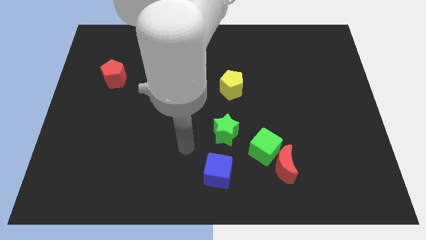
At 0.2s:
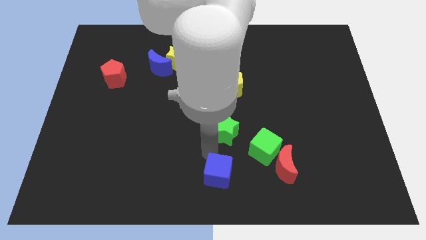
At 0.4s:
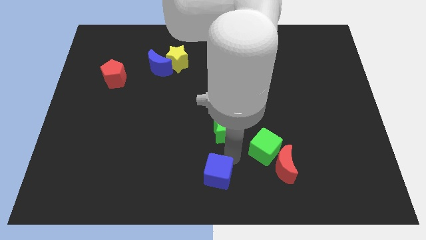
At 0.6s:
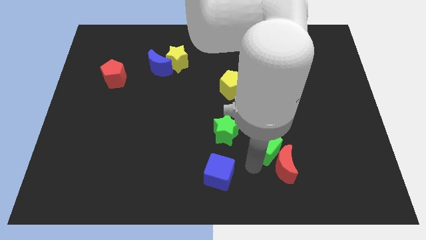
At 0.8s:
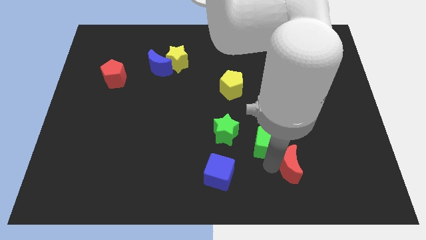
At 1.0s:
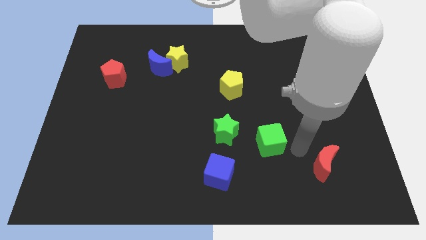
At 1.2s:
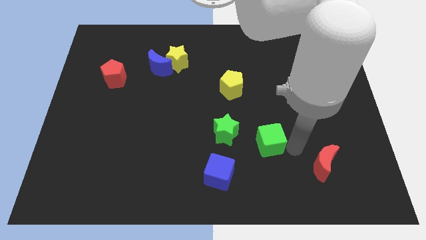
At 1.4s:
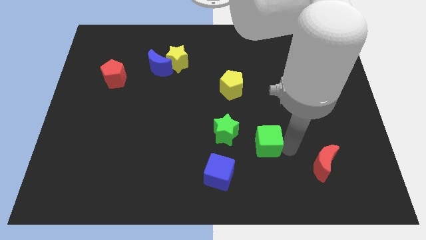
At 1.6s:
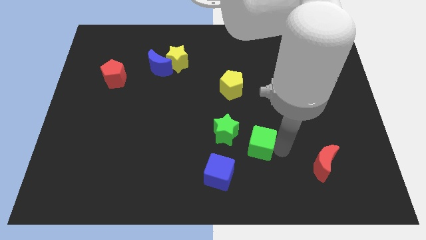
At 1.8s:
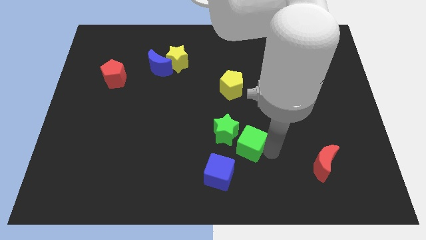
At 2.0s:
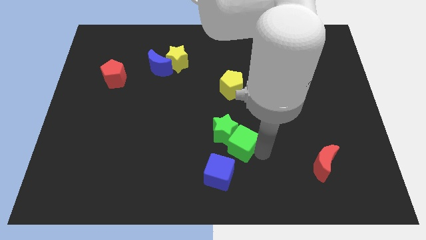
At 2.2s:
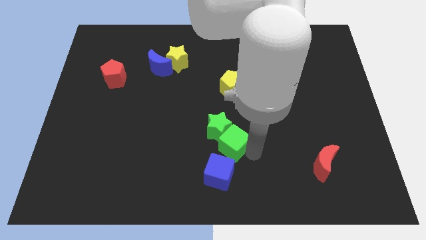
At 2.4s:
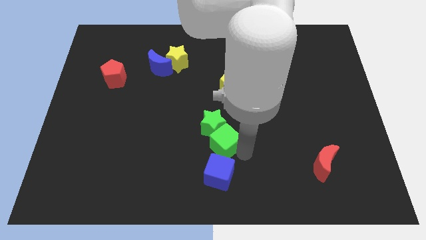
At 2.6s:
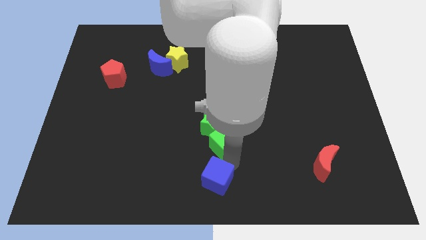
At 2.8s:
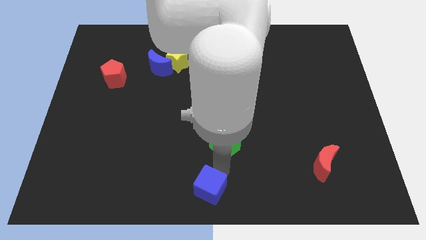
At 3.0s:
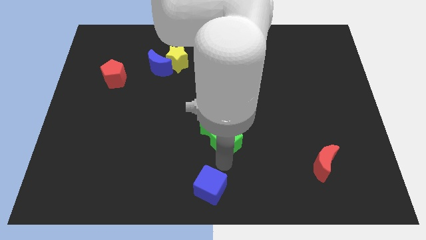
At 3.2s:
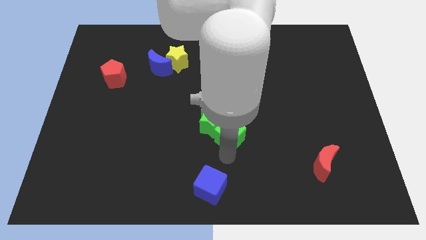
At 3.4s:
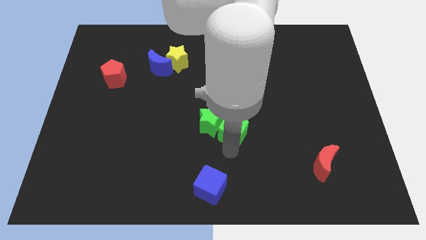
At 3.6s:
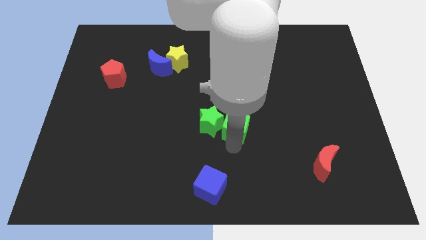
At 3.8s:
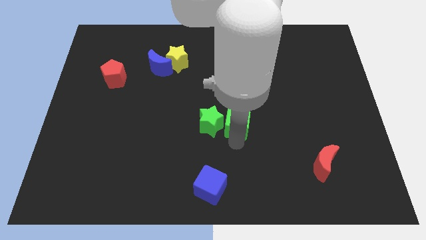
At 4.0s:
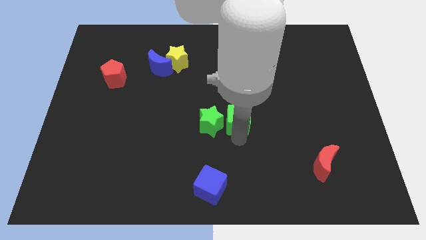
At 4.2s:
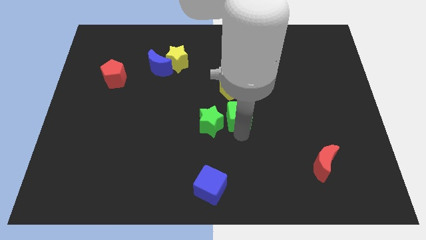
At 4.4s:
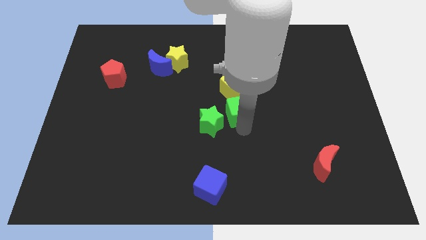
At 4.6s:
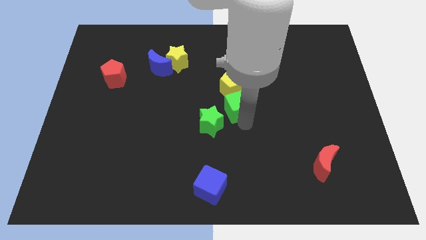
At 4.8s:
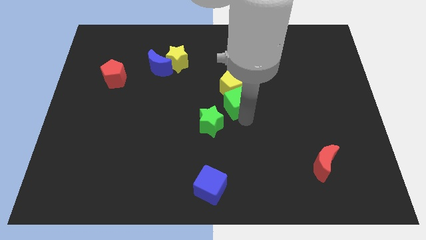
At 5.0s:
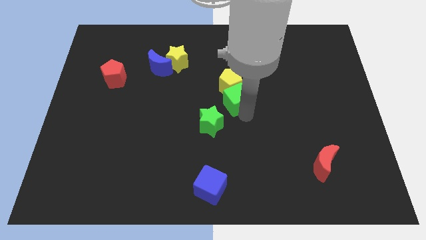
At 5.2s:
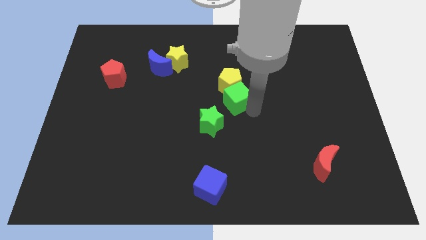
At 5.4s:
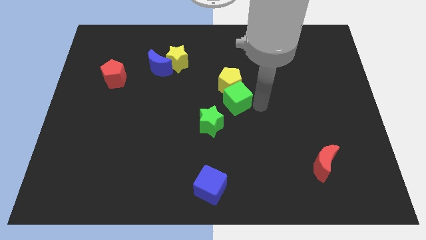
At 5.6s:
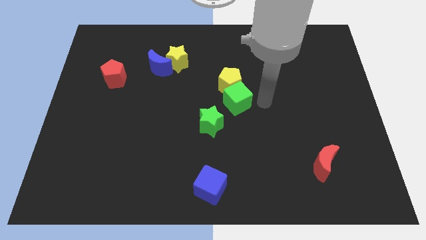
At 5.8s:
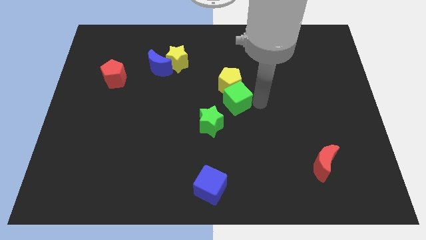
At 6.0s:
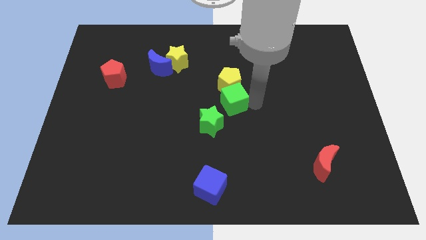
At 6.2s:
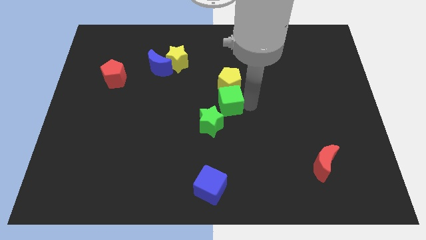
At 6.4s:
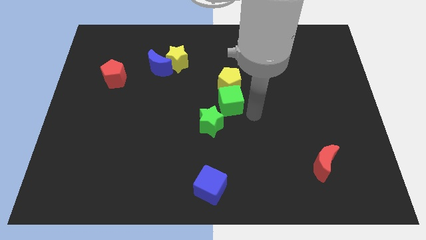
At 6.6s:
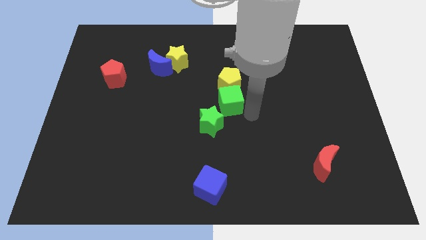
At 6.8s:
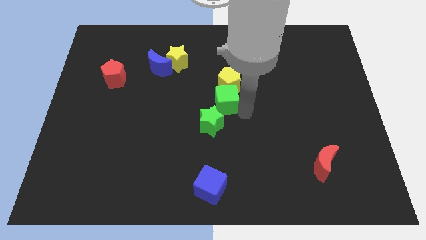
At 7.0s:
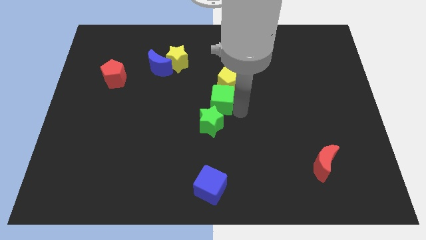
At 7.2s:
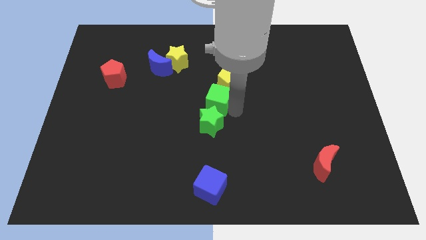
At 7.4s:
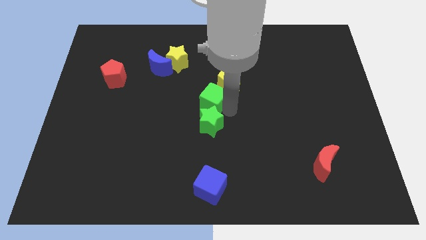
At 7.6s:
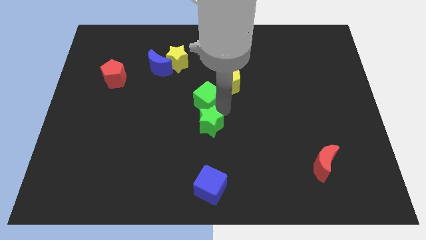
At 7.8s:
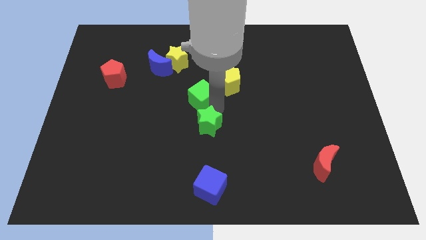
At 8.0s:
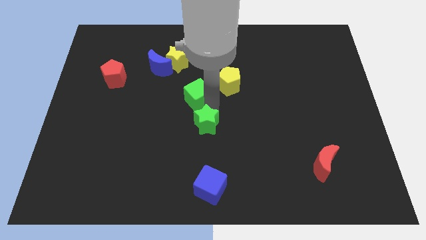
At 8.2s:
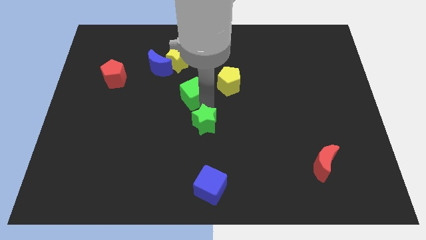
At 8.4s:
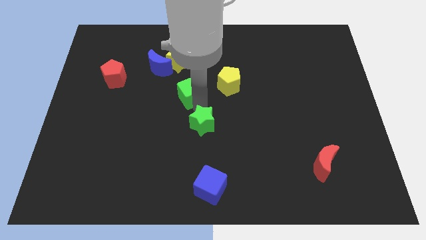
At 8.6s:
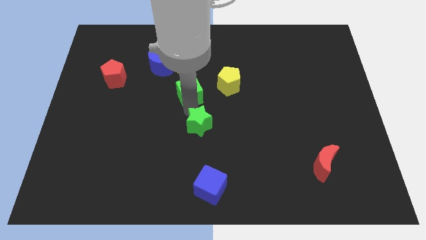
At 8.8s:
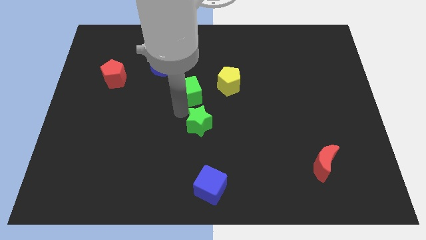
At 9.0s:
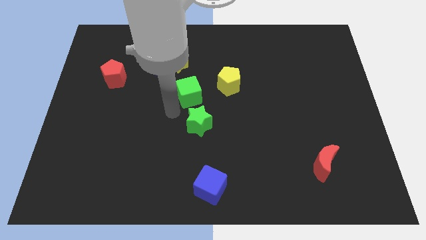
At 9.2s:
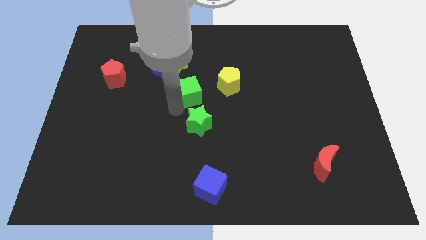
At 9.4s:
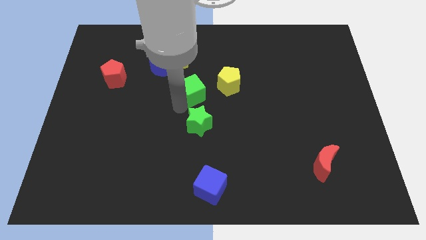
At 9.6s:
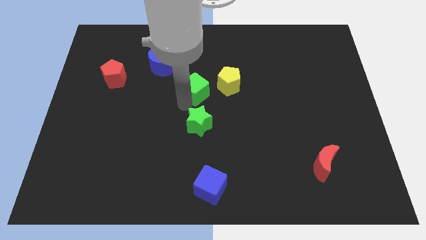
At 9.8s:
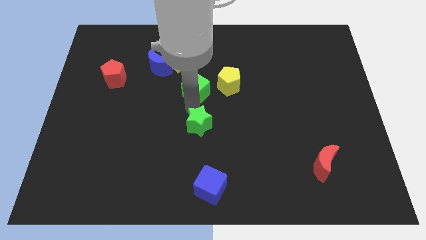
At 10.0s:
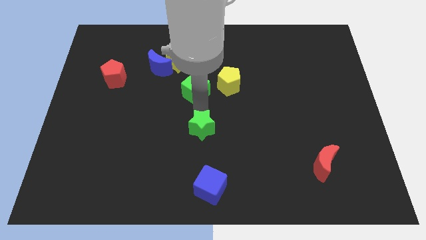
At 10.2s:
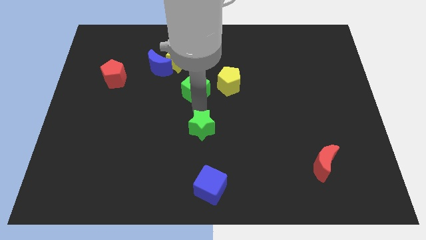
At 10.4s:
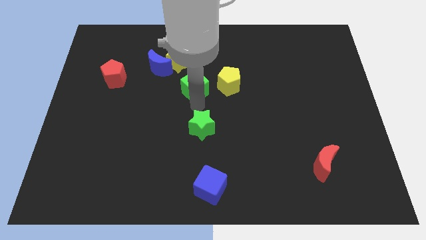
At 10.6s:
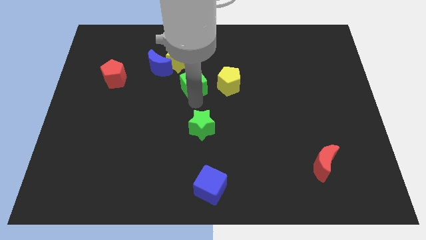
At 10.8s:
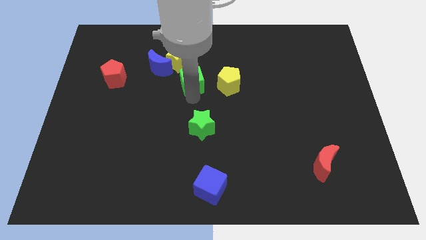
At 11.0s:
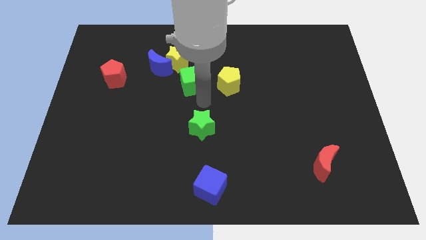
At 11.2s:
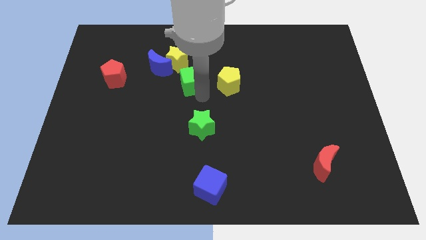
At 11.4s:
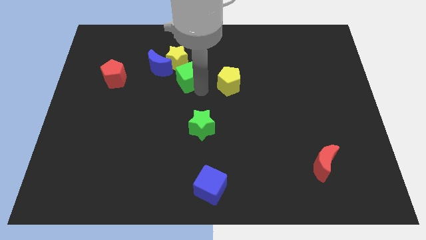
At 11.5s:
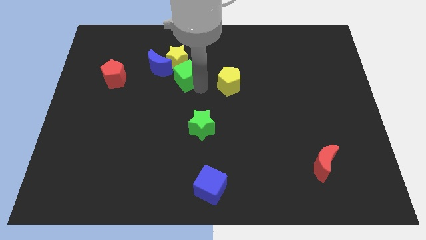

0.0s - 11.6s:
move the green cube towards the yellow star

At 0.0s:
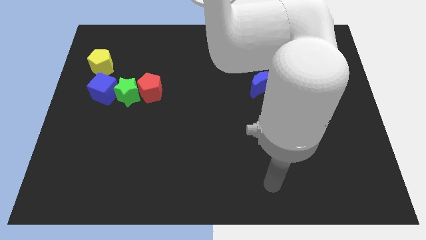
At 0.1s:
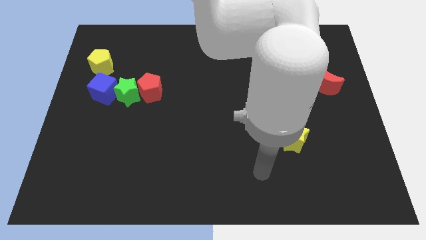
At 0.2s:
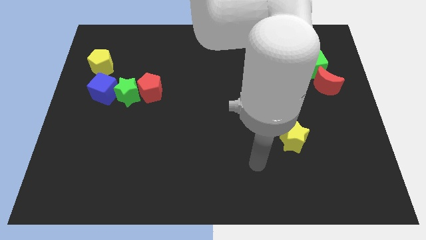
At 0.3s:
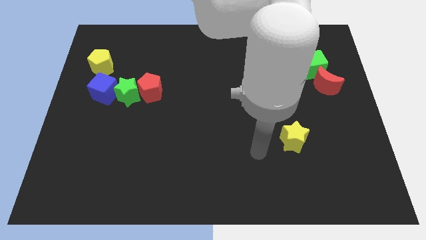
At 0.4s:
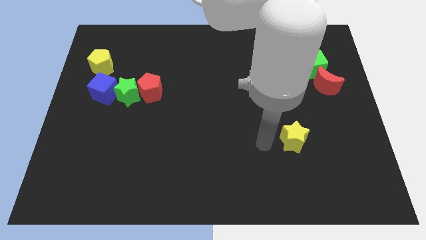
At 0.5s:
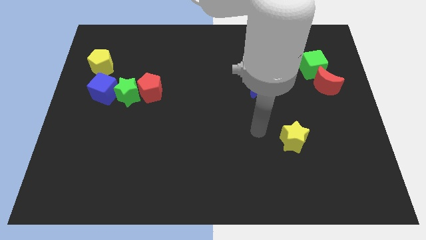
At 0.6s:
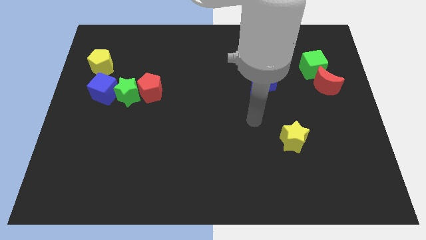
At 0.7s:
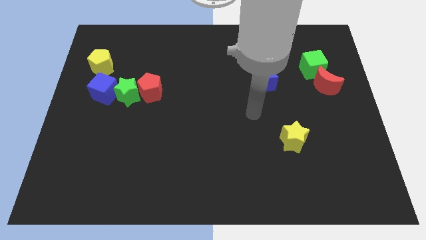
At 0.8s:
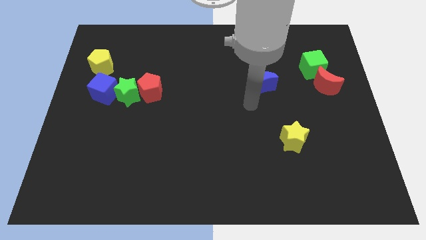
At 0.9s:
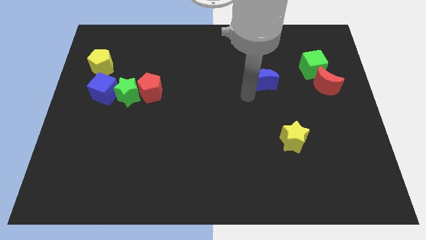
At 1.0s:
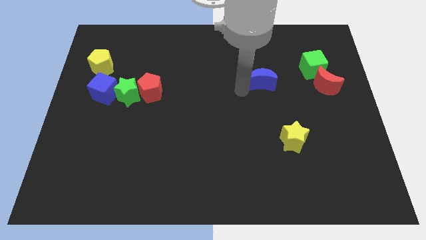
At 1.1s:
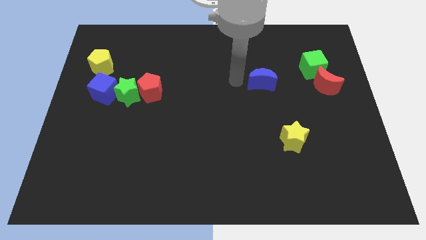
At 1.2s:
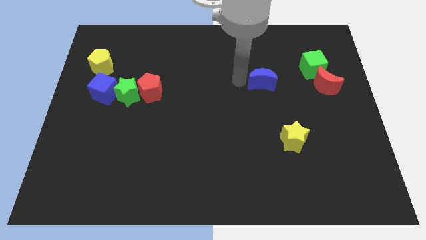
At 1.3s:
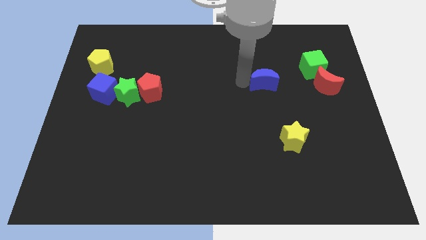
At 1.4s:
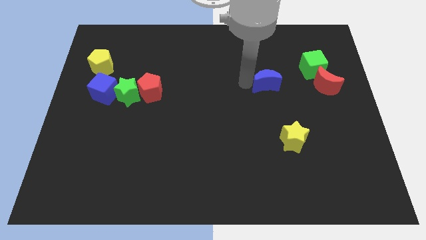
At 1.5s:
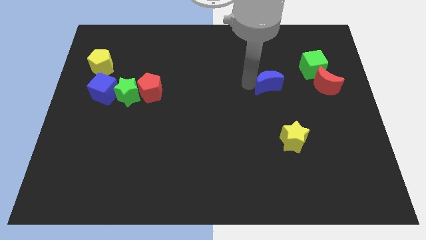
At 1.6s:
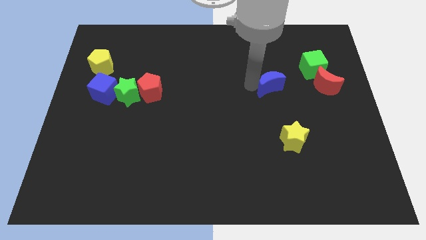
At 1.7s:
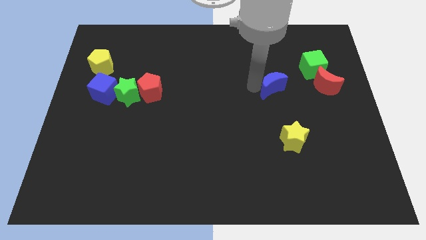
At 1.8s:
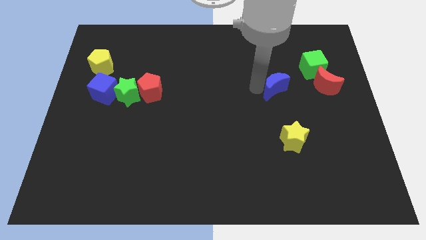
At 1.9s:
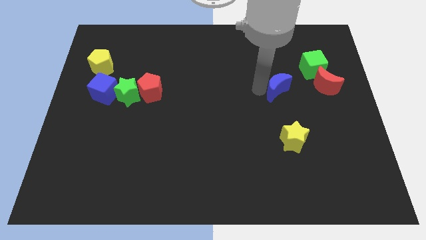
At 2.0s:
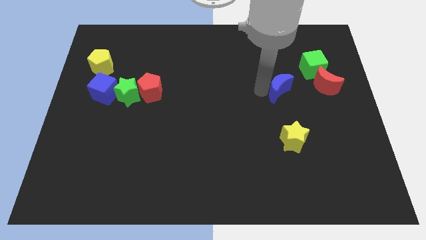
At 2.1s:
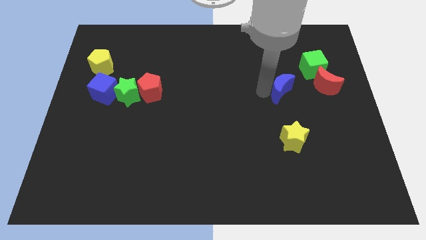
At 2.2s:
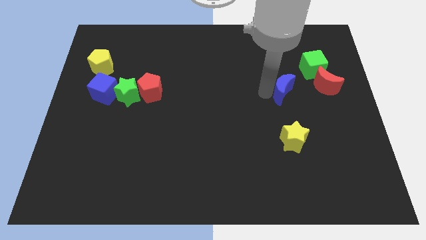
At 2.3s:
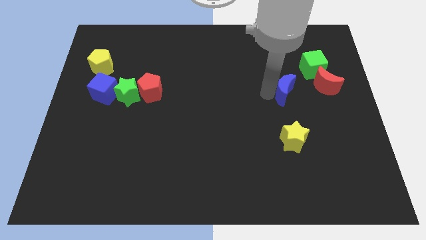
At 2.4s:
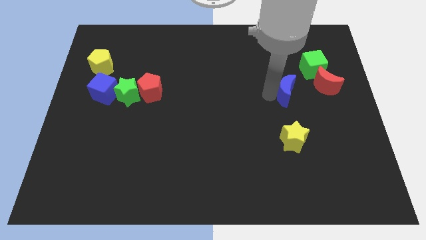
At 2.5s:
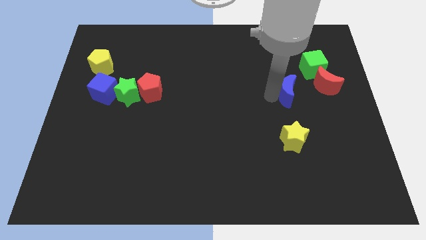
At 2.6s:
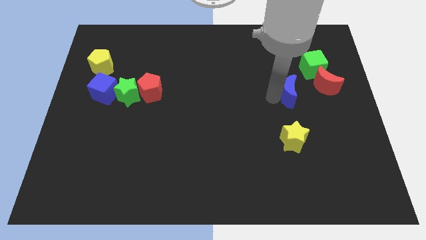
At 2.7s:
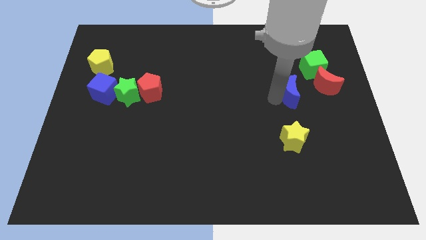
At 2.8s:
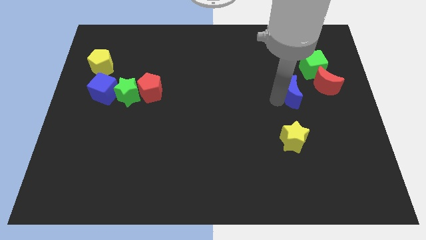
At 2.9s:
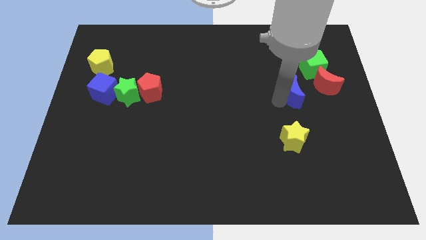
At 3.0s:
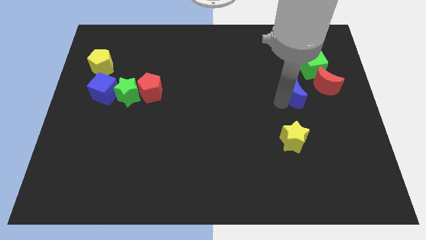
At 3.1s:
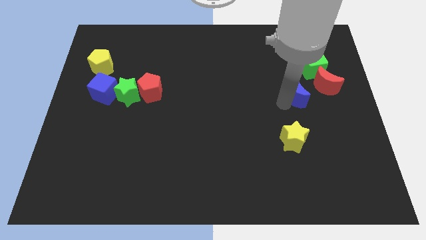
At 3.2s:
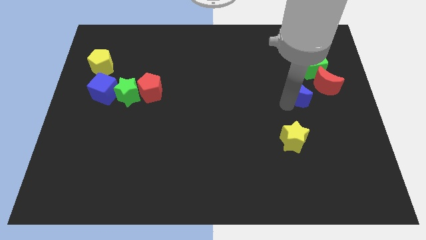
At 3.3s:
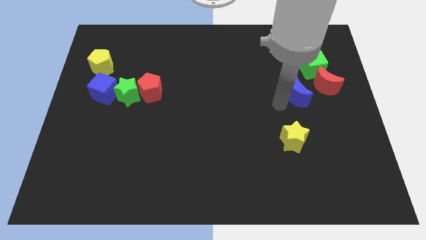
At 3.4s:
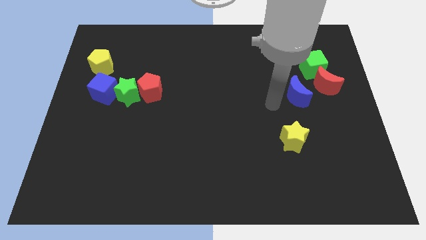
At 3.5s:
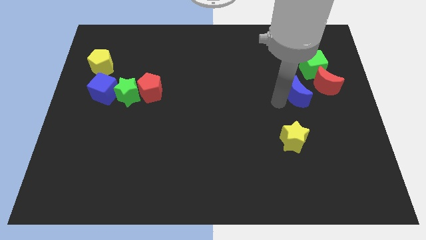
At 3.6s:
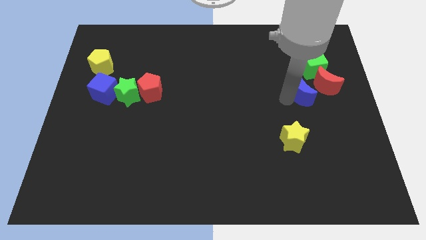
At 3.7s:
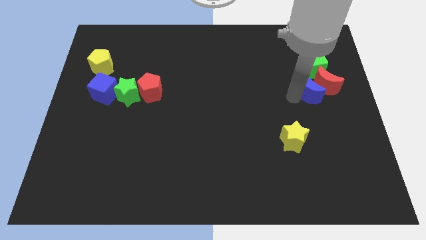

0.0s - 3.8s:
move the blue moon to the red moon
